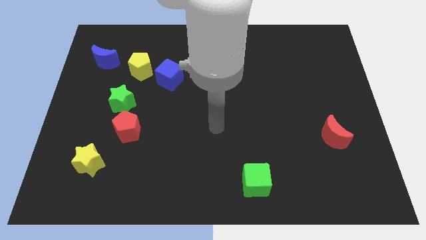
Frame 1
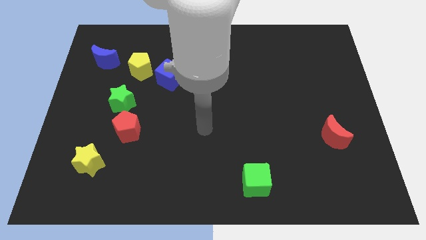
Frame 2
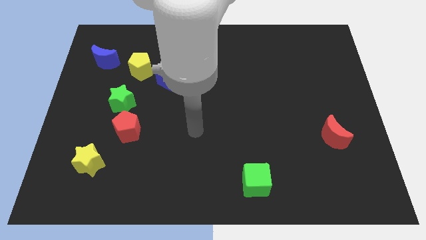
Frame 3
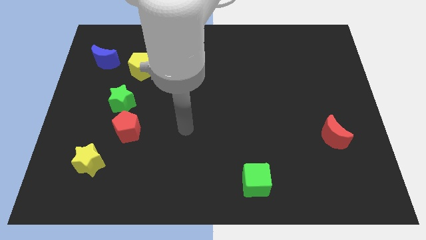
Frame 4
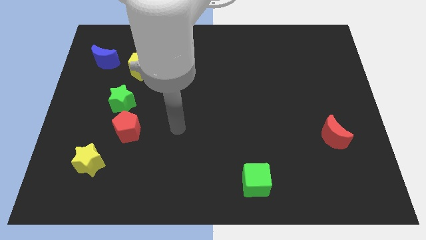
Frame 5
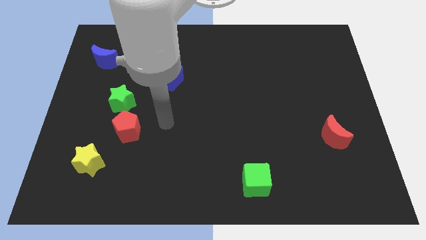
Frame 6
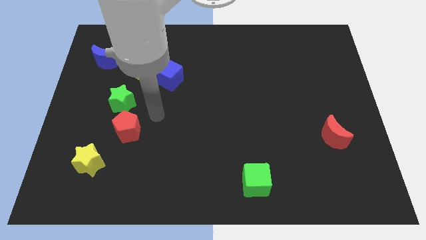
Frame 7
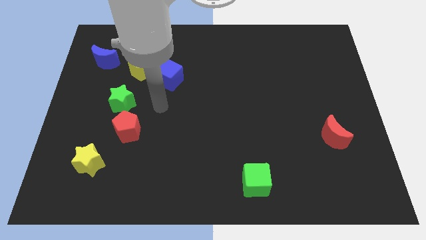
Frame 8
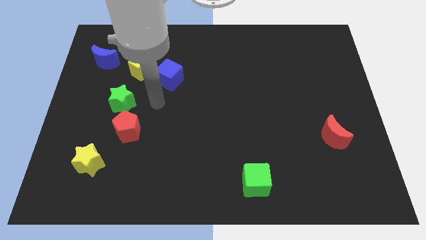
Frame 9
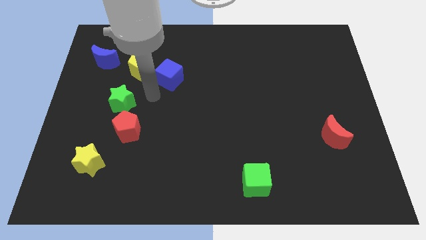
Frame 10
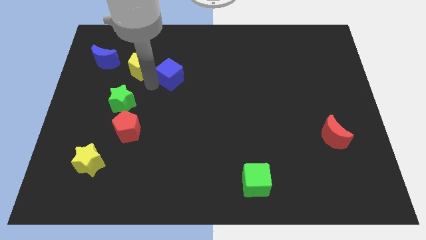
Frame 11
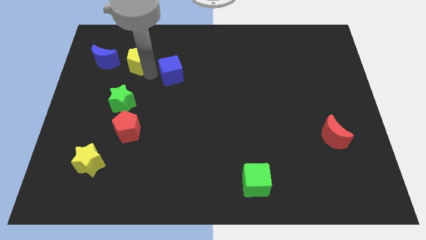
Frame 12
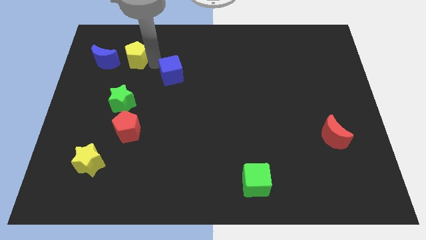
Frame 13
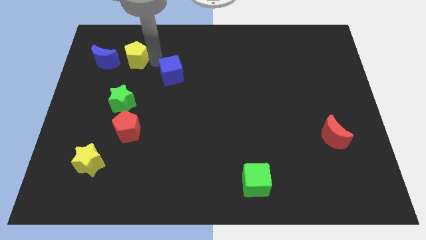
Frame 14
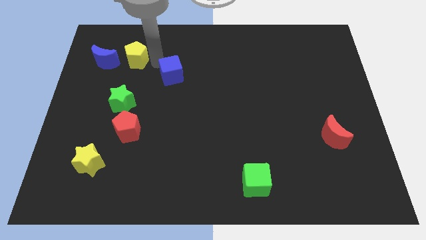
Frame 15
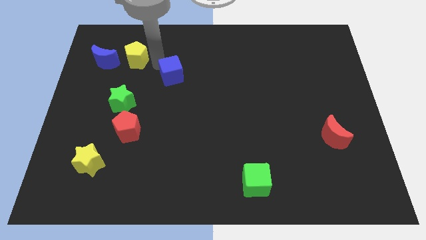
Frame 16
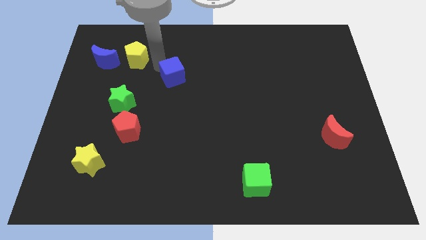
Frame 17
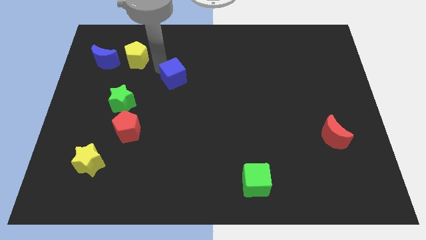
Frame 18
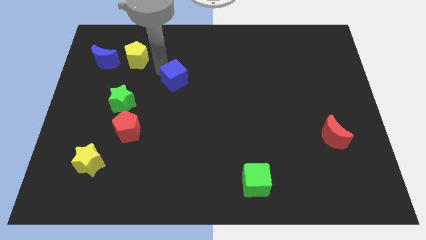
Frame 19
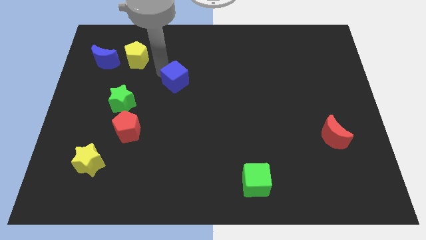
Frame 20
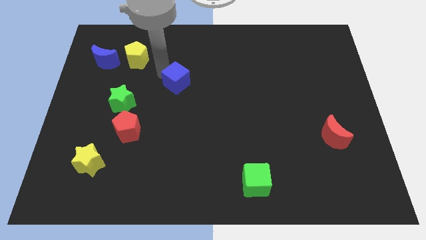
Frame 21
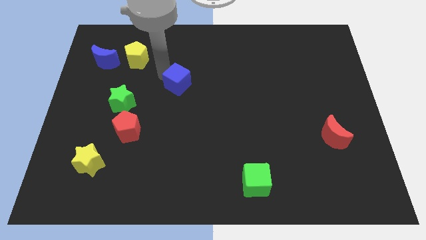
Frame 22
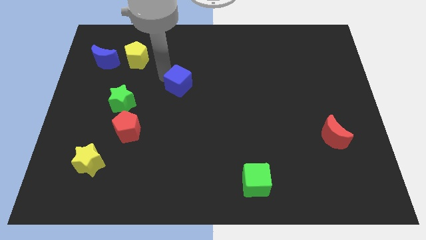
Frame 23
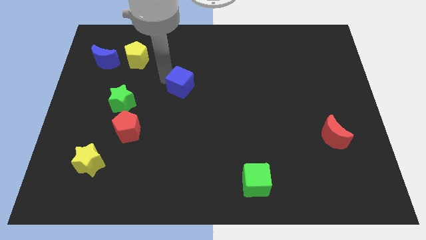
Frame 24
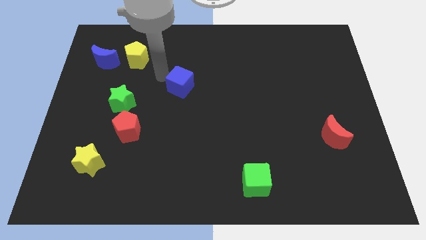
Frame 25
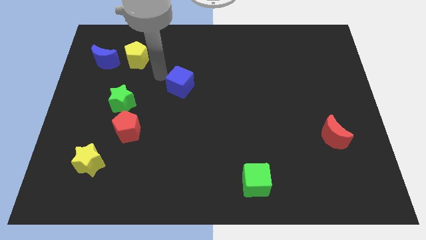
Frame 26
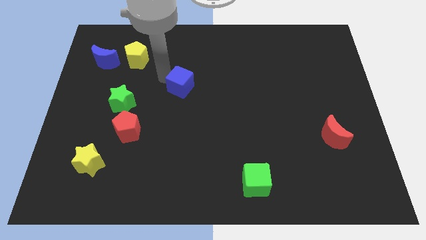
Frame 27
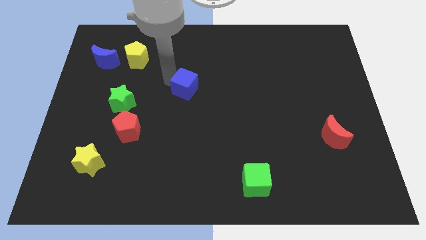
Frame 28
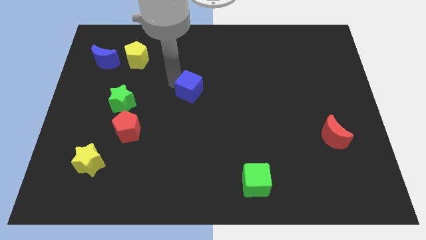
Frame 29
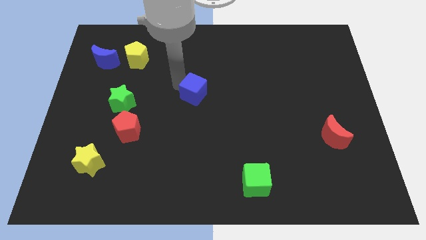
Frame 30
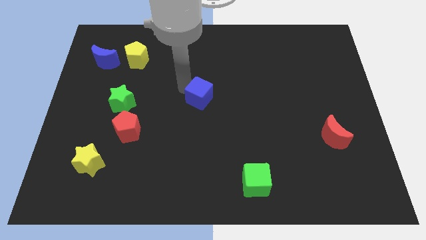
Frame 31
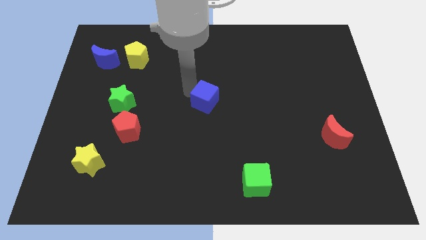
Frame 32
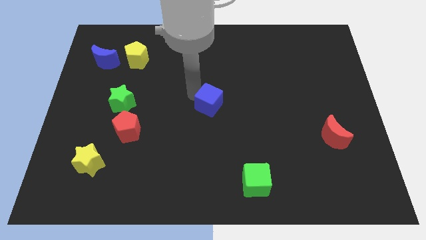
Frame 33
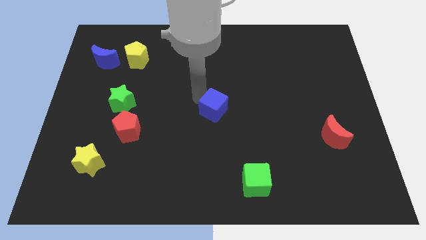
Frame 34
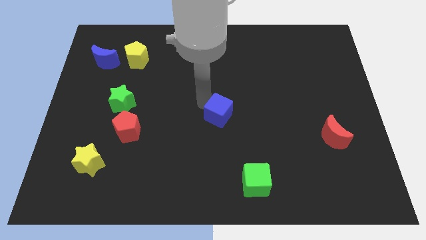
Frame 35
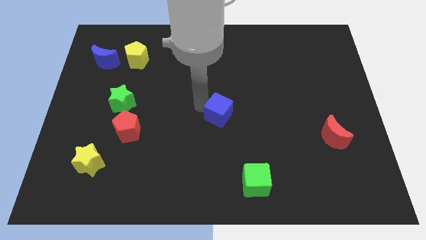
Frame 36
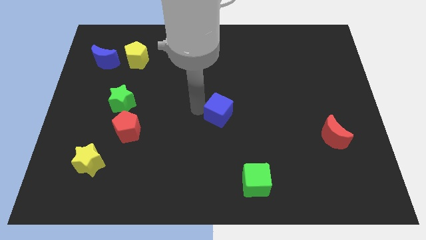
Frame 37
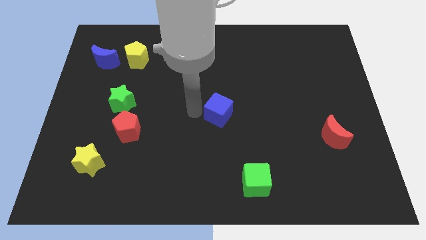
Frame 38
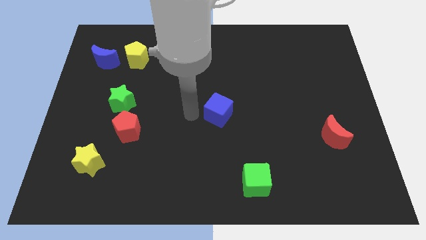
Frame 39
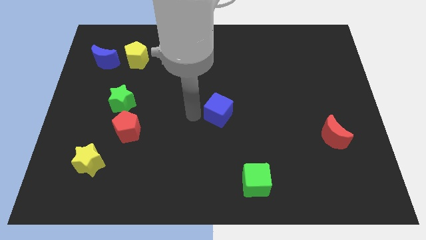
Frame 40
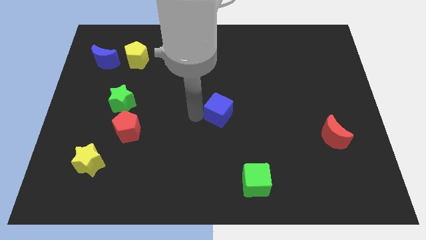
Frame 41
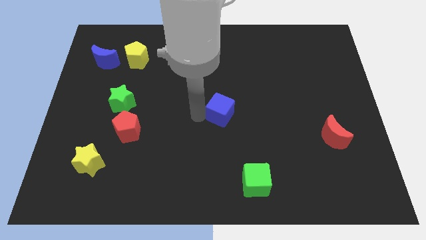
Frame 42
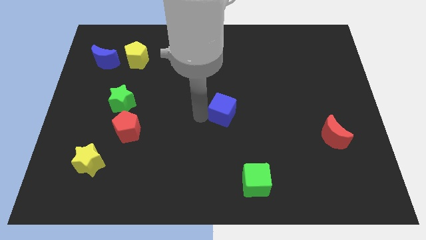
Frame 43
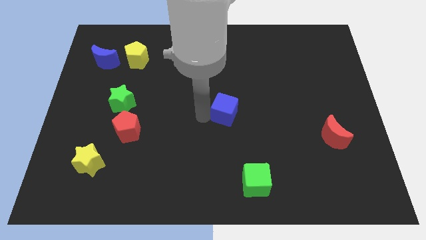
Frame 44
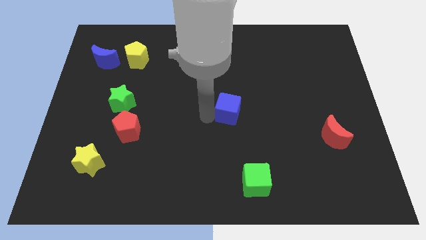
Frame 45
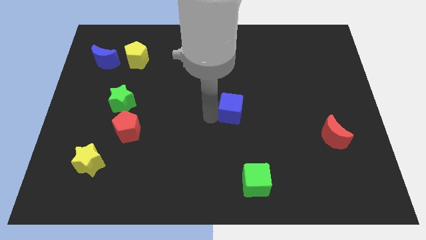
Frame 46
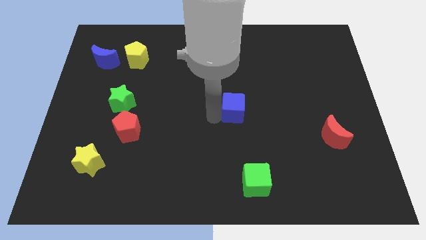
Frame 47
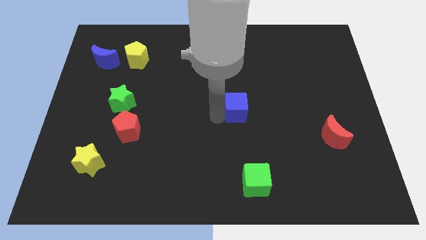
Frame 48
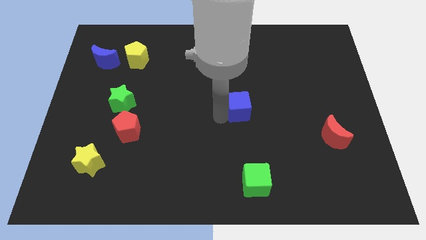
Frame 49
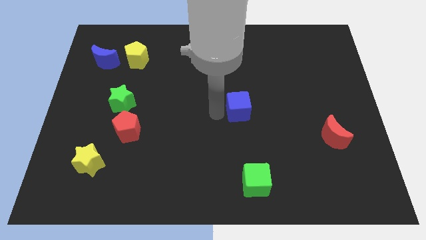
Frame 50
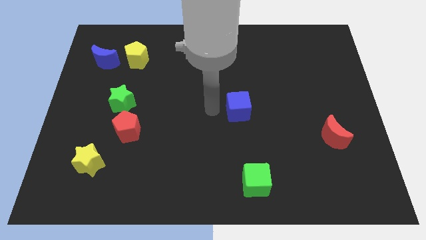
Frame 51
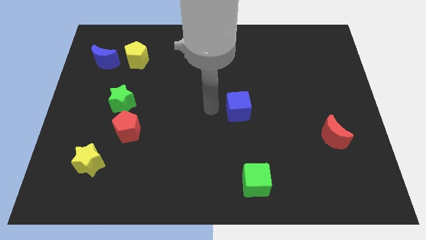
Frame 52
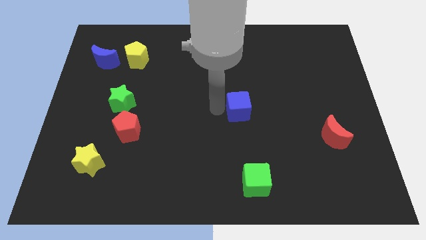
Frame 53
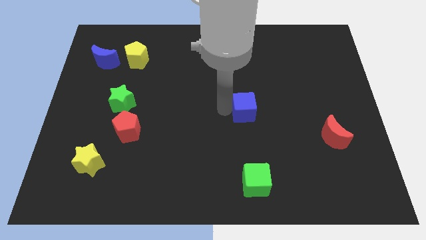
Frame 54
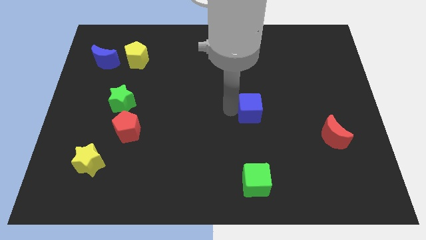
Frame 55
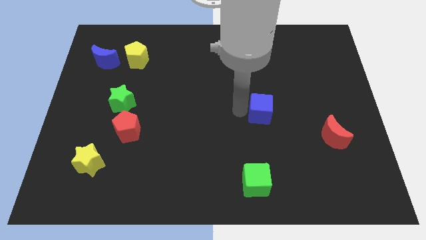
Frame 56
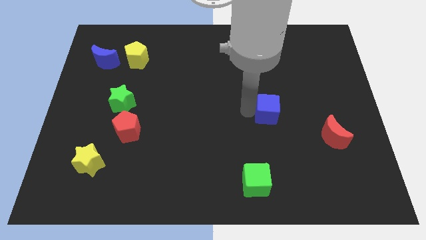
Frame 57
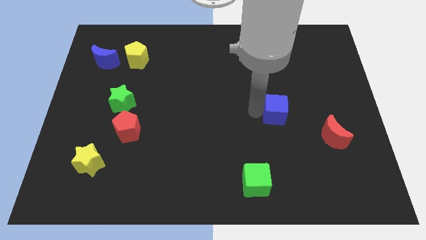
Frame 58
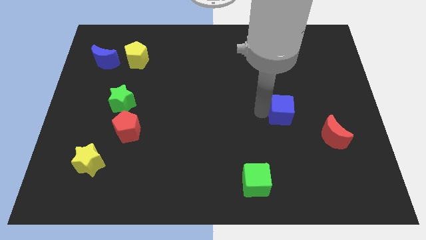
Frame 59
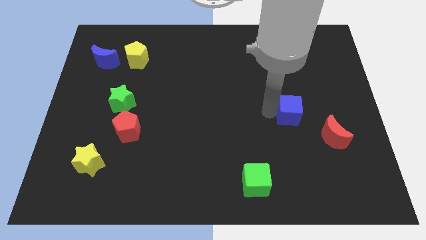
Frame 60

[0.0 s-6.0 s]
move the blue cube to the top left of the red moon

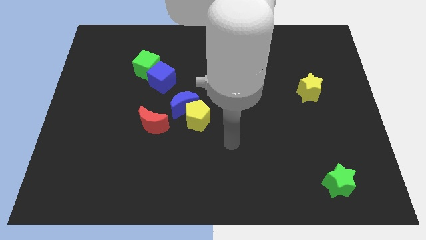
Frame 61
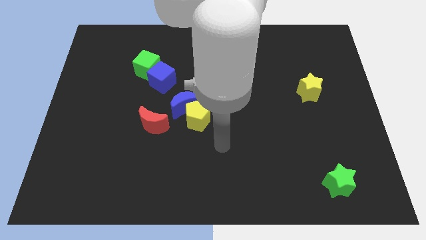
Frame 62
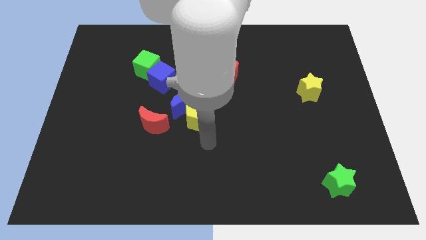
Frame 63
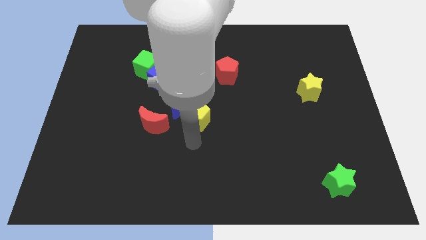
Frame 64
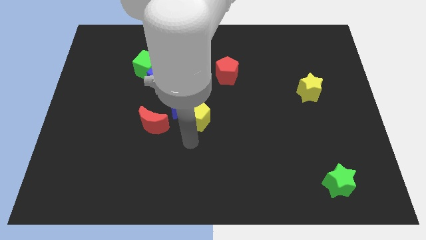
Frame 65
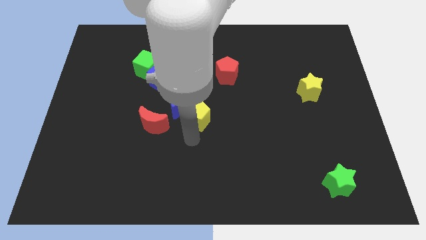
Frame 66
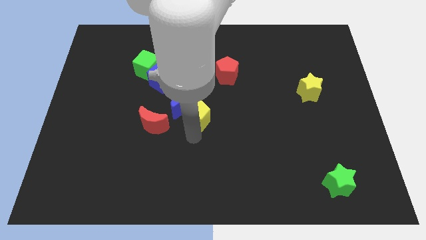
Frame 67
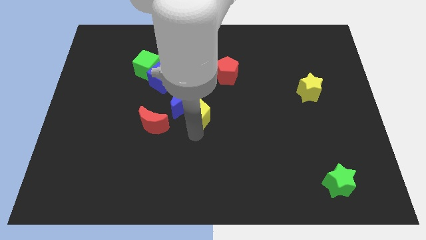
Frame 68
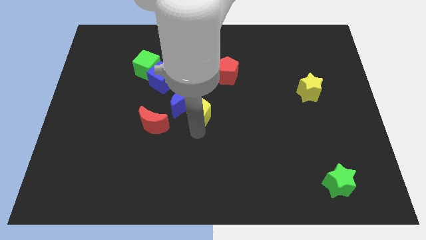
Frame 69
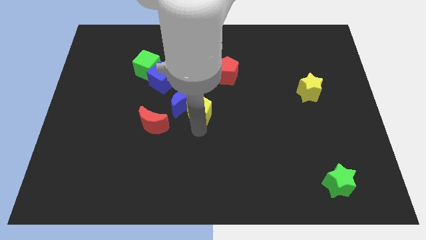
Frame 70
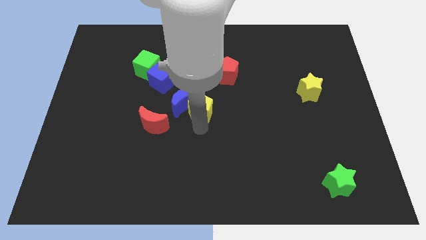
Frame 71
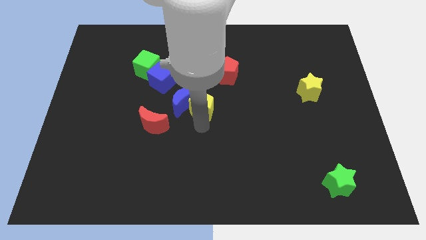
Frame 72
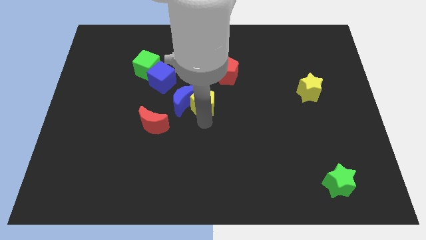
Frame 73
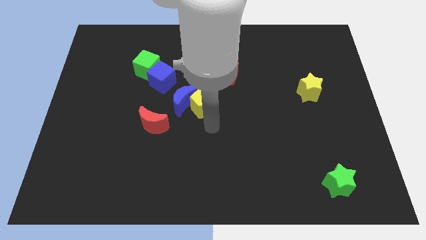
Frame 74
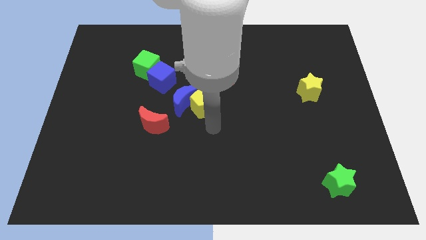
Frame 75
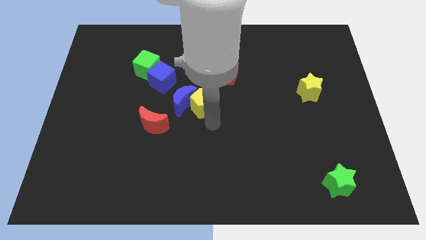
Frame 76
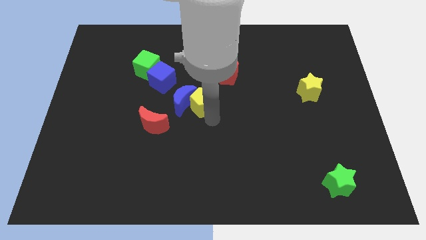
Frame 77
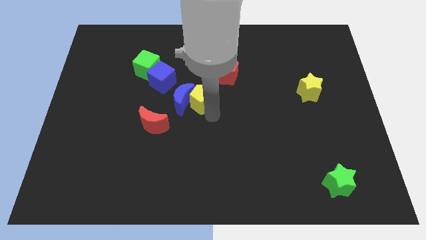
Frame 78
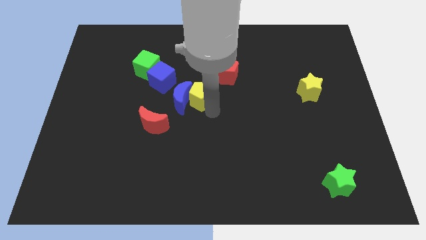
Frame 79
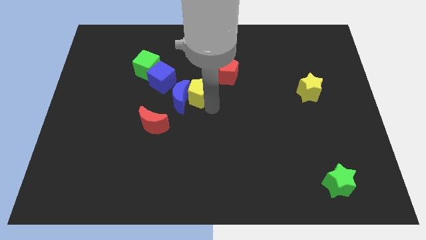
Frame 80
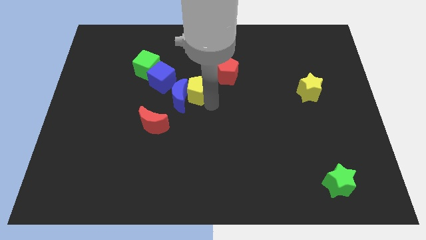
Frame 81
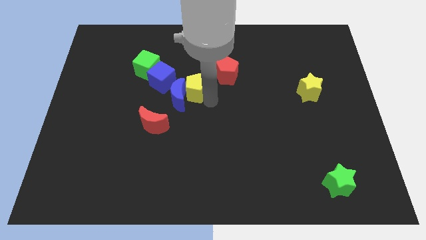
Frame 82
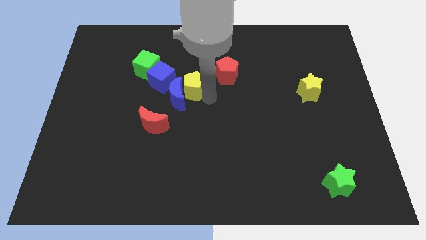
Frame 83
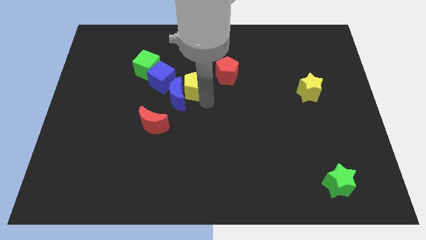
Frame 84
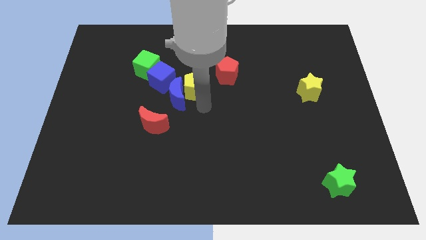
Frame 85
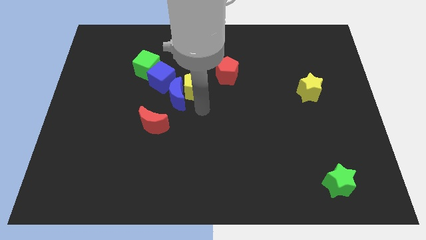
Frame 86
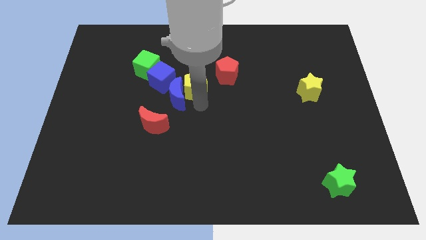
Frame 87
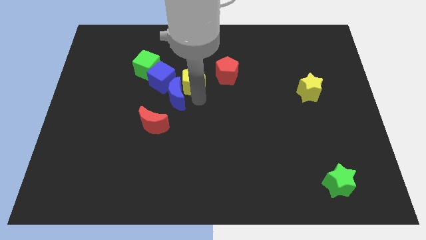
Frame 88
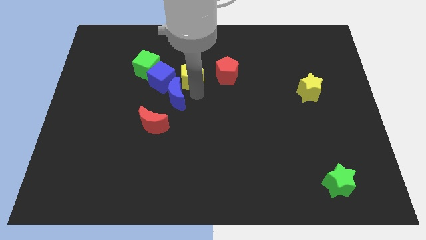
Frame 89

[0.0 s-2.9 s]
move the yellow pentagon to the right of the green cube
